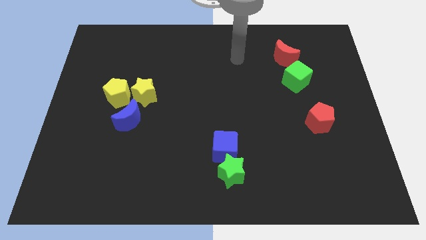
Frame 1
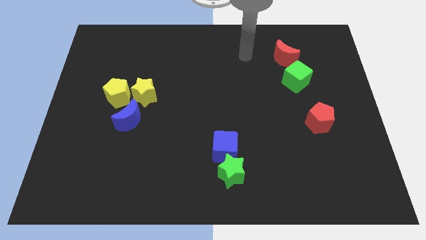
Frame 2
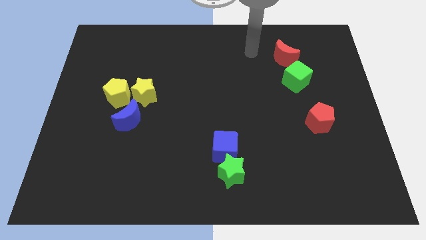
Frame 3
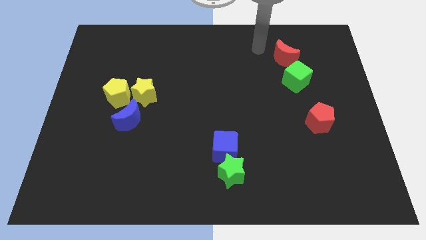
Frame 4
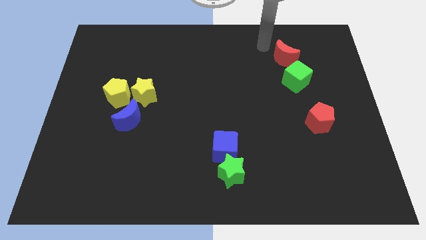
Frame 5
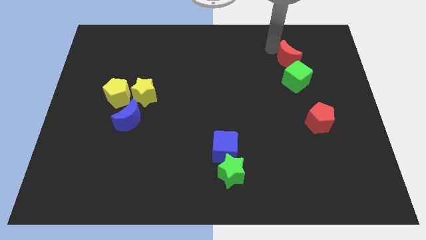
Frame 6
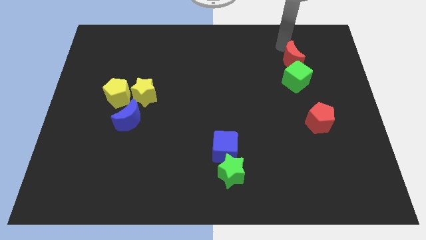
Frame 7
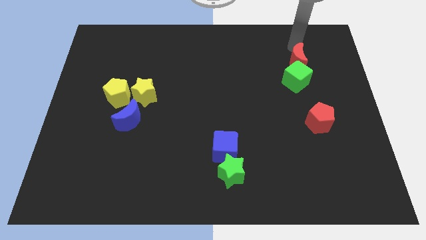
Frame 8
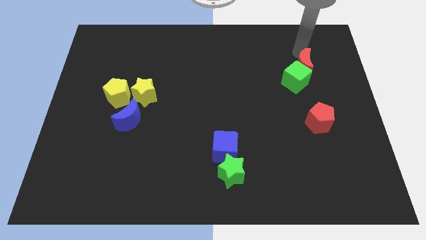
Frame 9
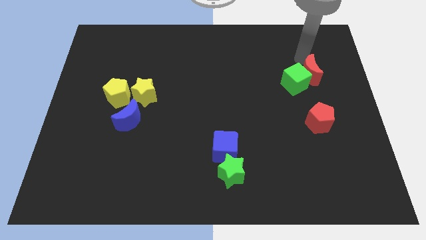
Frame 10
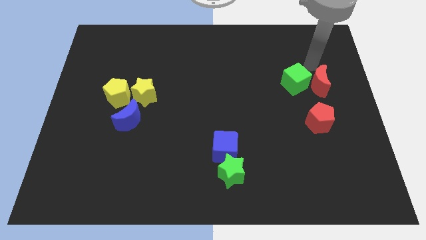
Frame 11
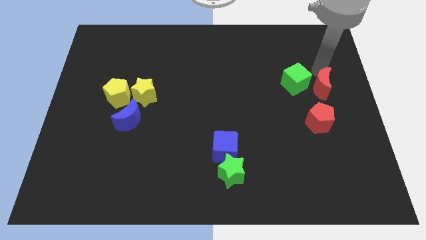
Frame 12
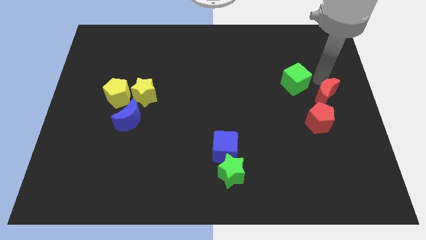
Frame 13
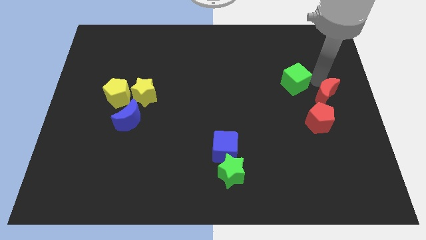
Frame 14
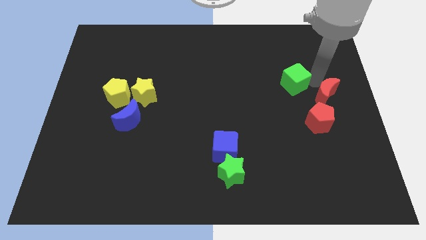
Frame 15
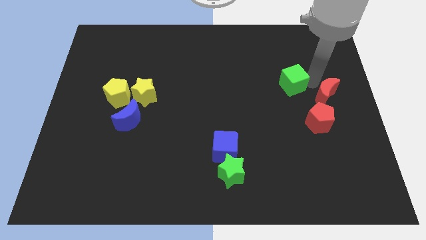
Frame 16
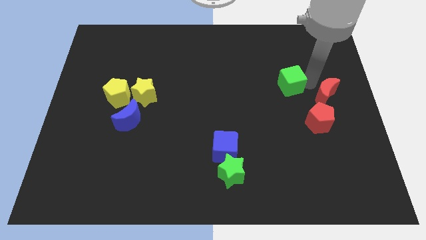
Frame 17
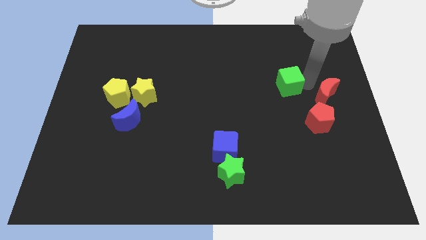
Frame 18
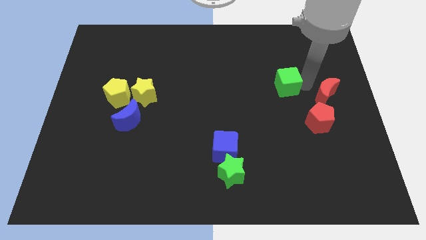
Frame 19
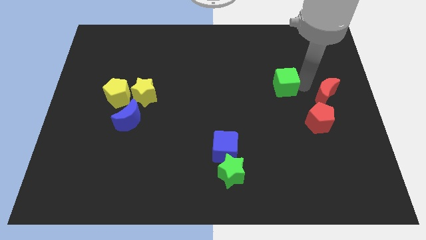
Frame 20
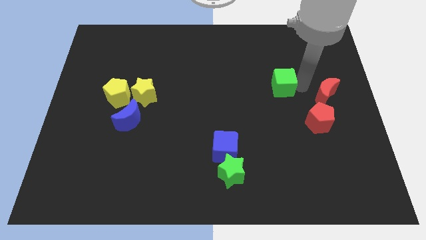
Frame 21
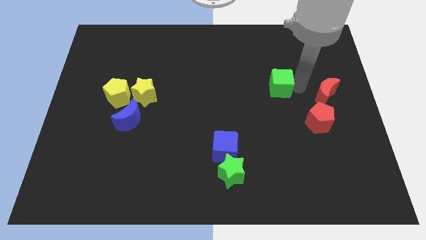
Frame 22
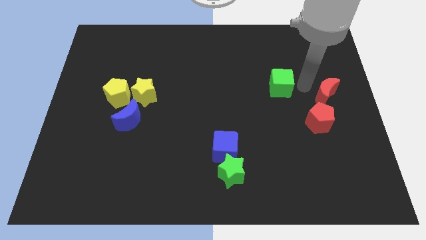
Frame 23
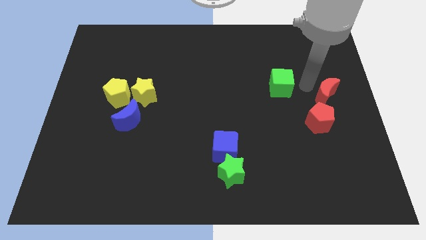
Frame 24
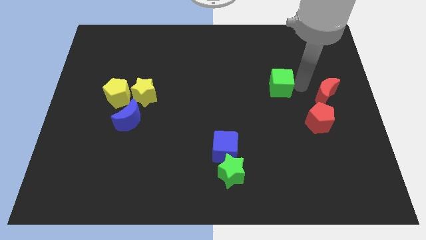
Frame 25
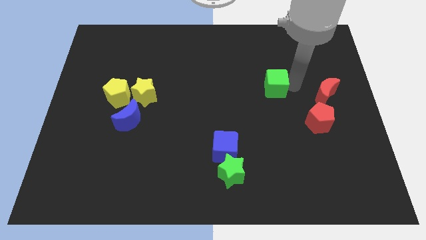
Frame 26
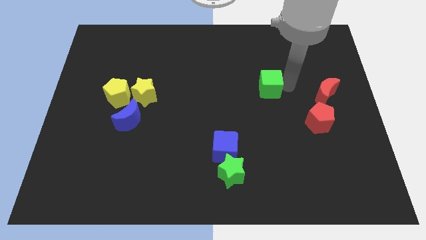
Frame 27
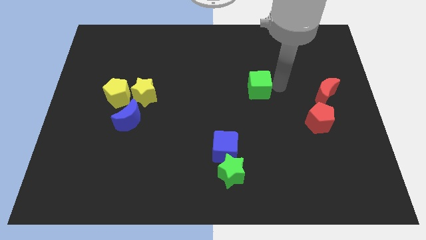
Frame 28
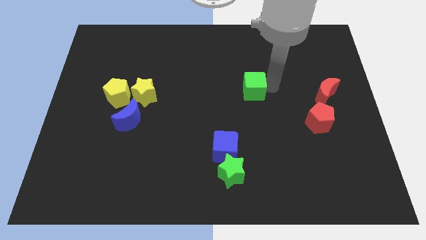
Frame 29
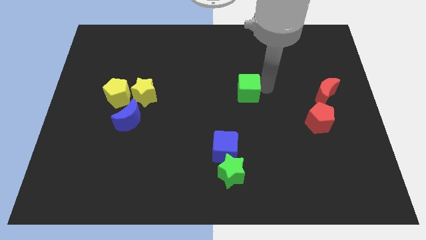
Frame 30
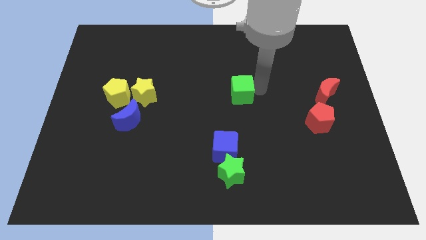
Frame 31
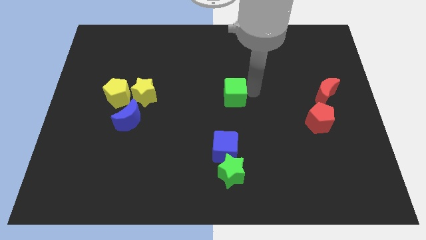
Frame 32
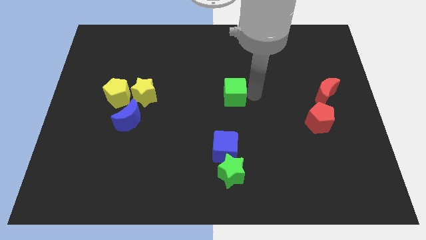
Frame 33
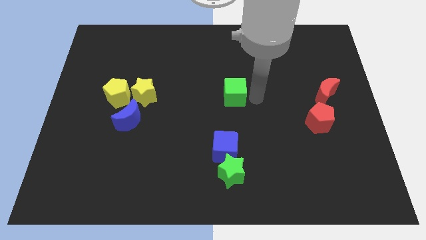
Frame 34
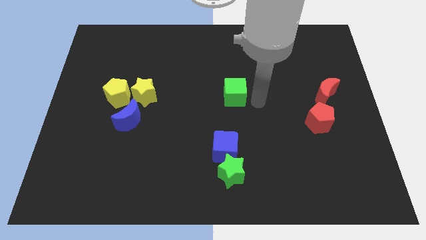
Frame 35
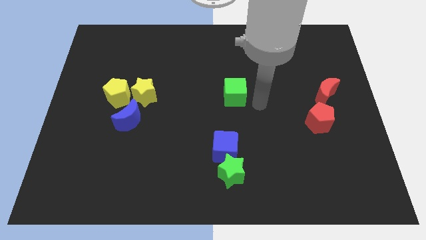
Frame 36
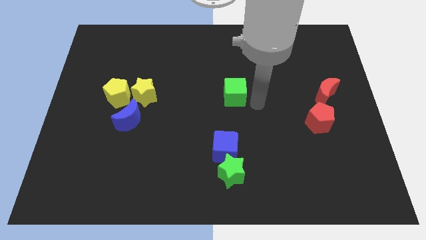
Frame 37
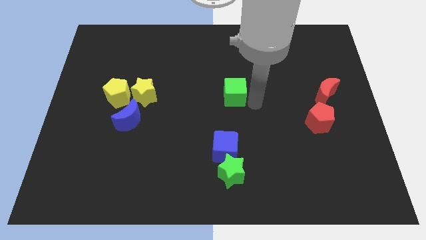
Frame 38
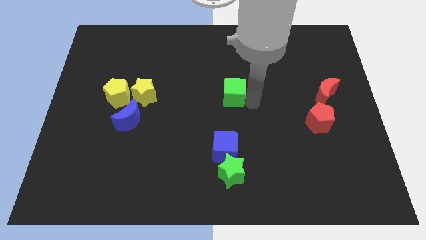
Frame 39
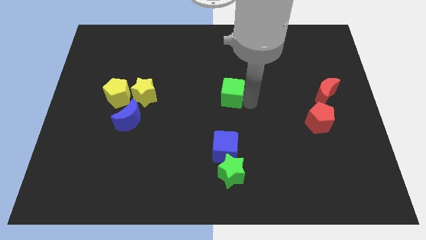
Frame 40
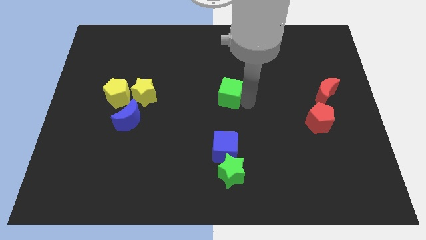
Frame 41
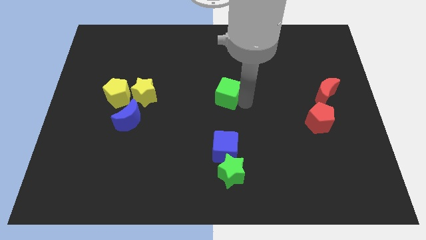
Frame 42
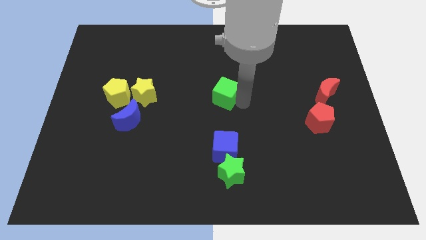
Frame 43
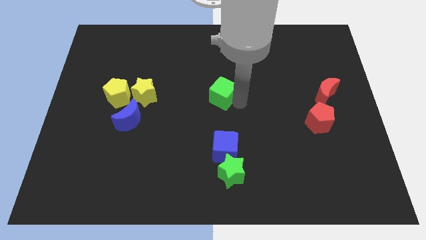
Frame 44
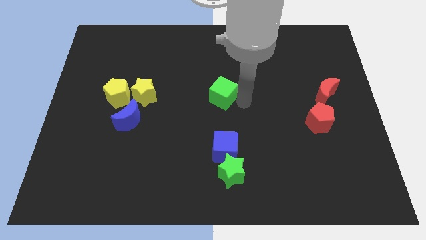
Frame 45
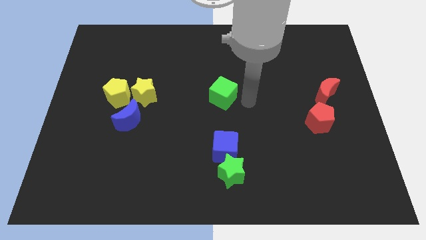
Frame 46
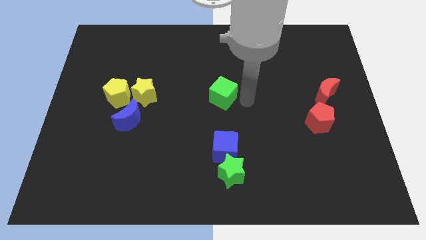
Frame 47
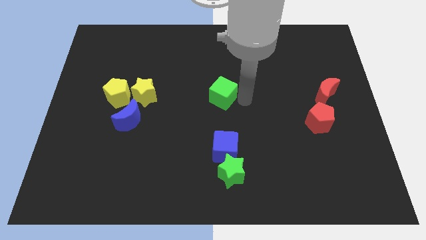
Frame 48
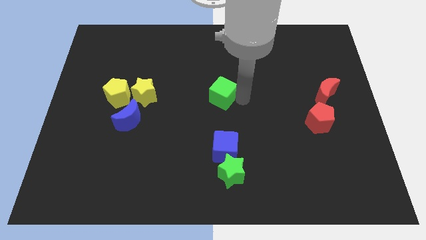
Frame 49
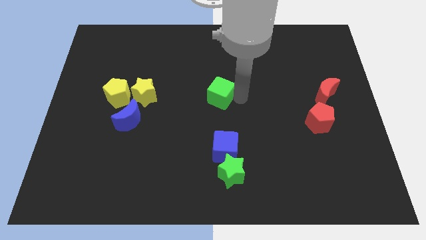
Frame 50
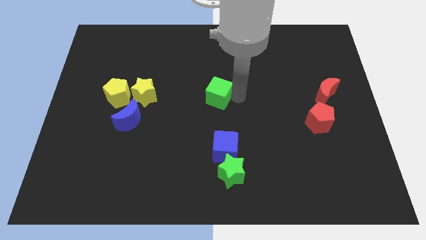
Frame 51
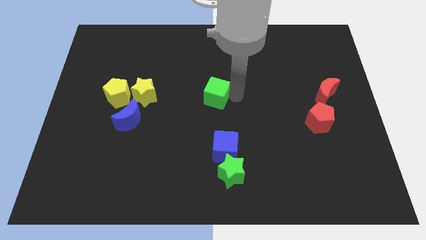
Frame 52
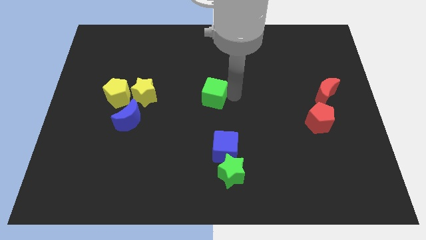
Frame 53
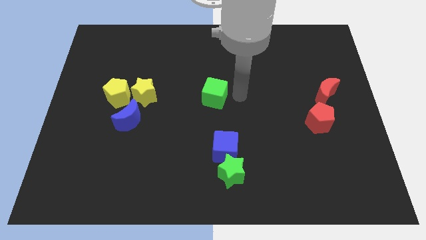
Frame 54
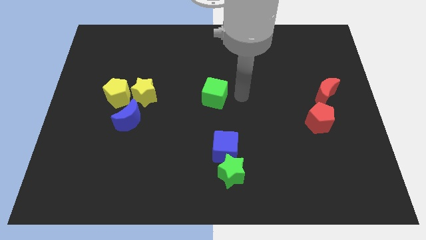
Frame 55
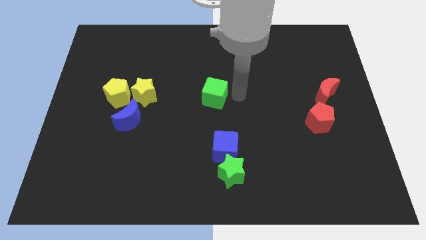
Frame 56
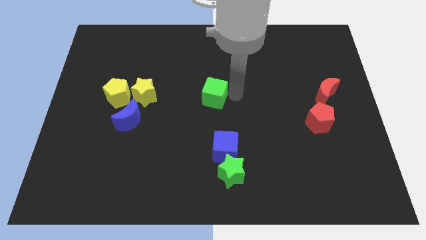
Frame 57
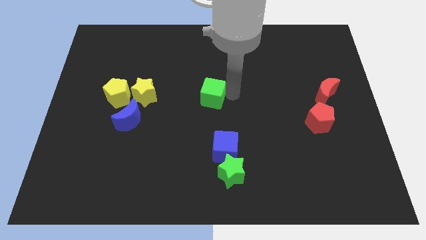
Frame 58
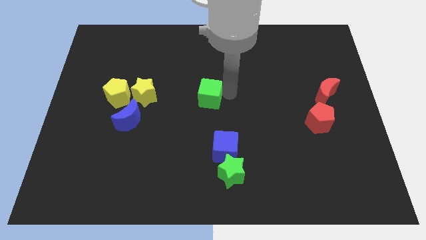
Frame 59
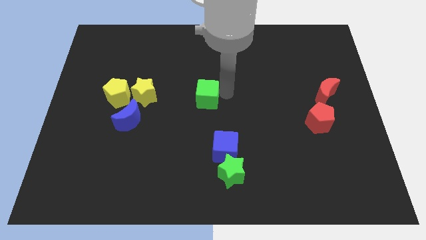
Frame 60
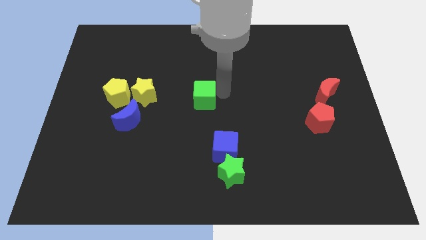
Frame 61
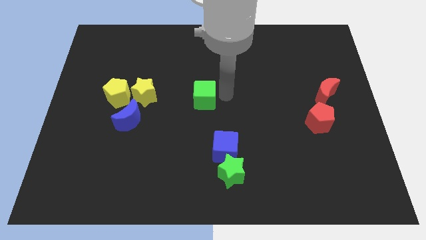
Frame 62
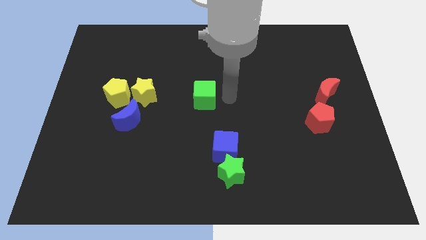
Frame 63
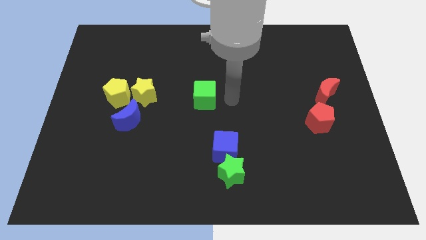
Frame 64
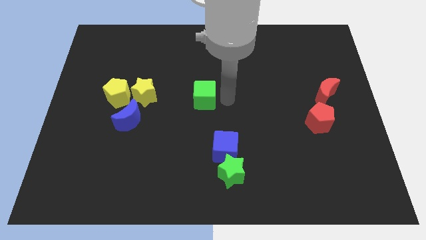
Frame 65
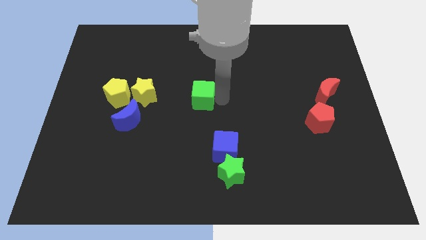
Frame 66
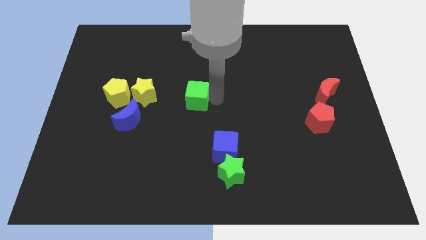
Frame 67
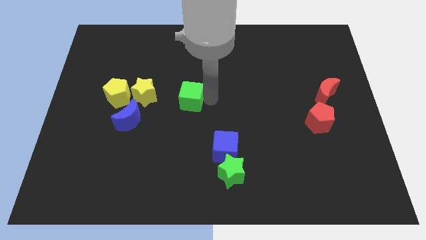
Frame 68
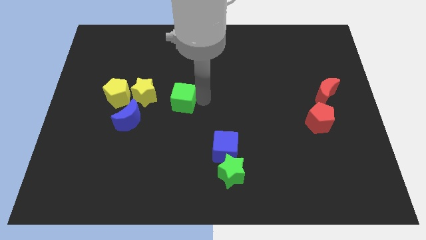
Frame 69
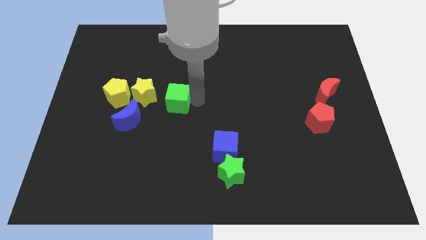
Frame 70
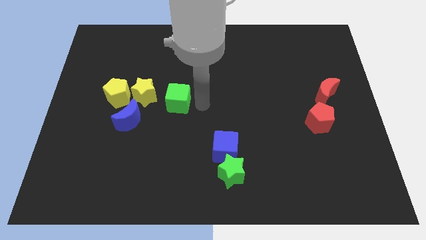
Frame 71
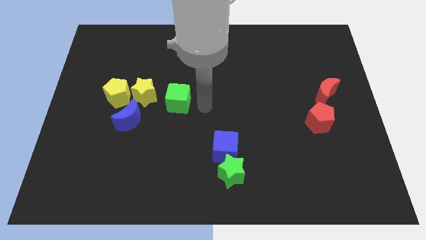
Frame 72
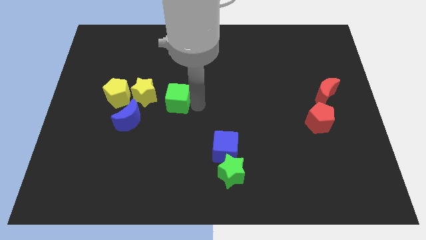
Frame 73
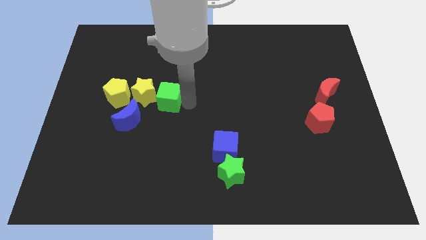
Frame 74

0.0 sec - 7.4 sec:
put the green cube next to the yellow star
